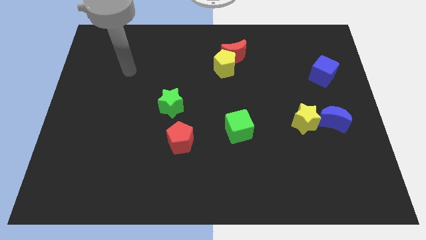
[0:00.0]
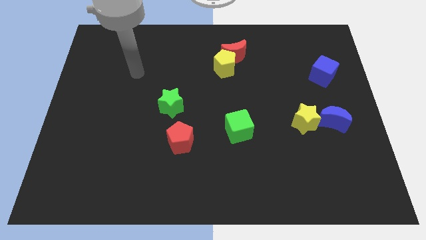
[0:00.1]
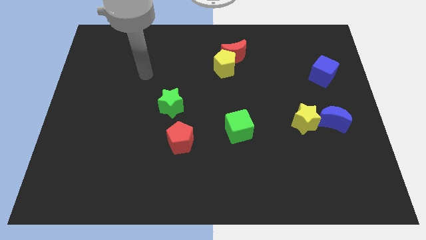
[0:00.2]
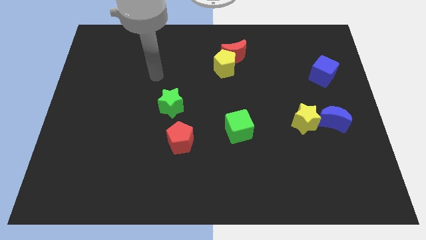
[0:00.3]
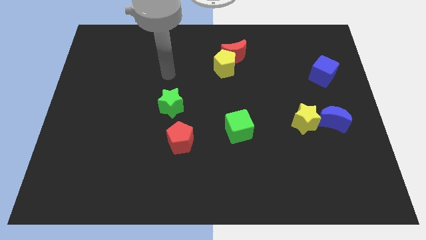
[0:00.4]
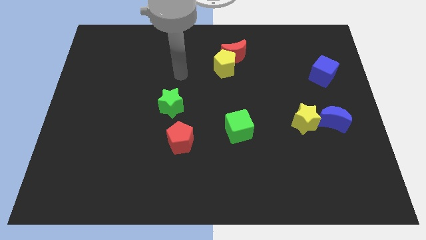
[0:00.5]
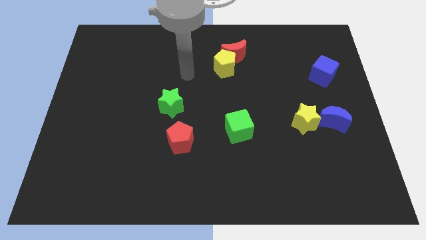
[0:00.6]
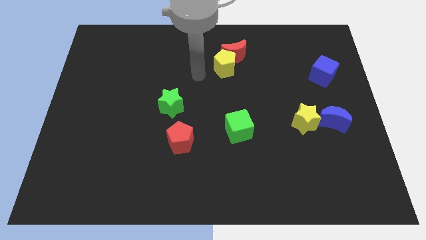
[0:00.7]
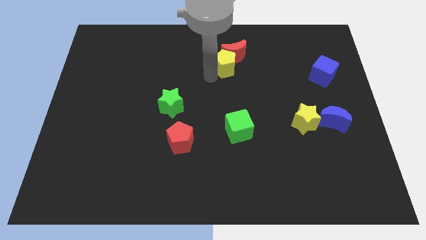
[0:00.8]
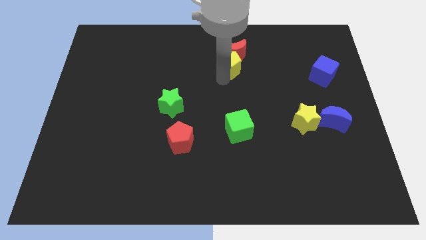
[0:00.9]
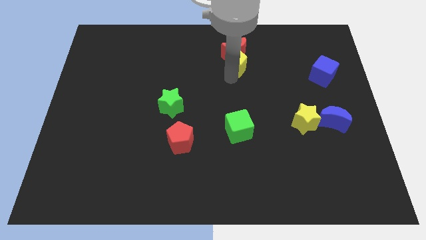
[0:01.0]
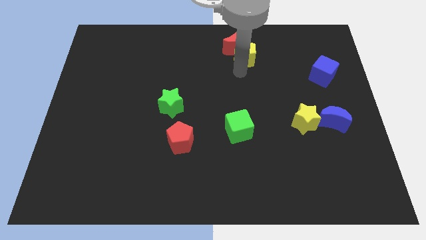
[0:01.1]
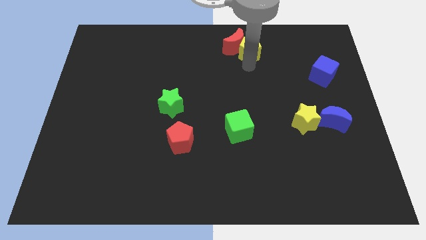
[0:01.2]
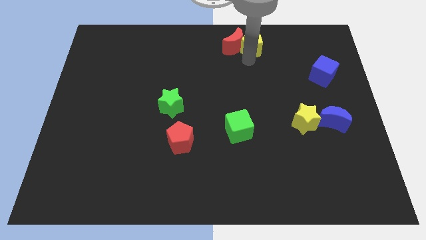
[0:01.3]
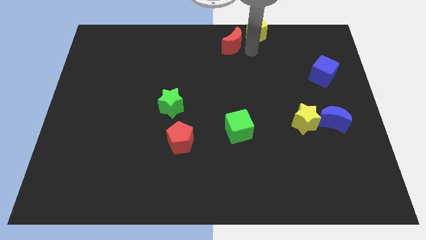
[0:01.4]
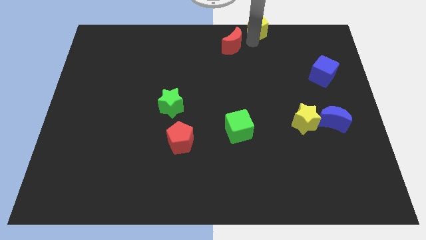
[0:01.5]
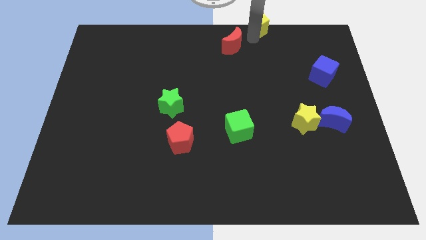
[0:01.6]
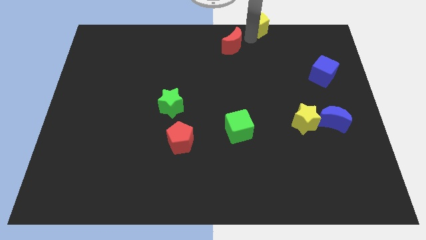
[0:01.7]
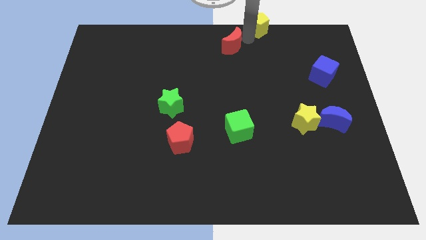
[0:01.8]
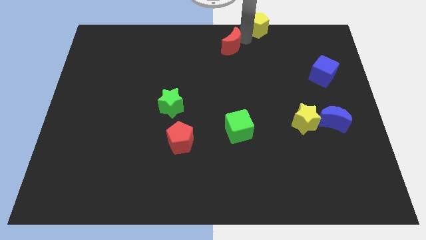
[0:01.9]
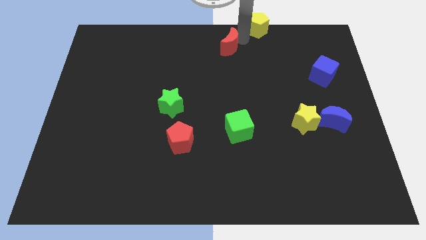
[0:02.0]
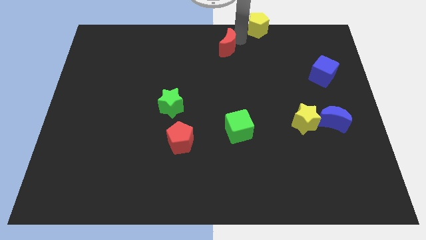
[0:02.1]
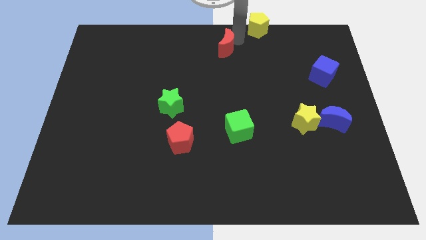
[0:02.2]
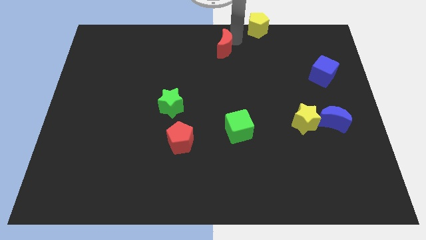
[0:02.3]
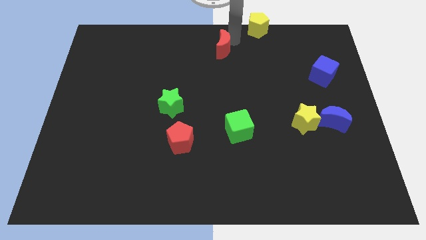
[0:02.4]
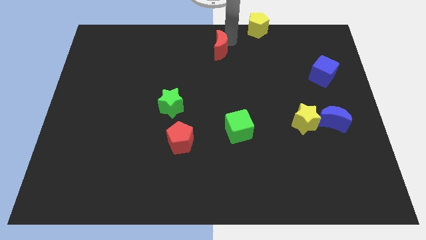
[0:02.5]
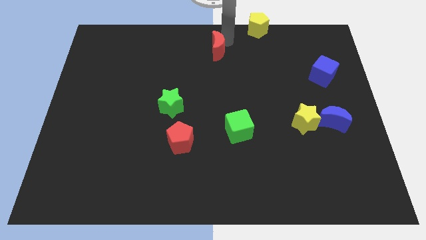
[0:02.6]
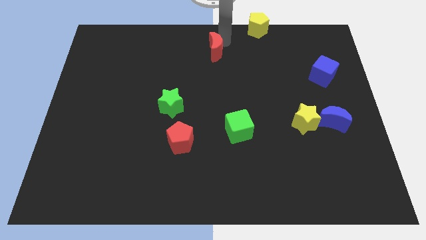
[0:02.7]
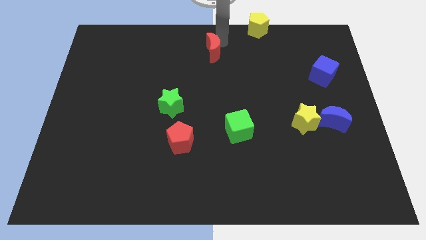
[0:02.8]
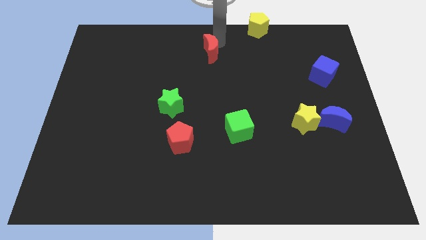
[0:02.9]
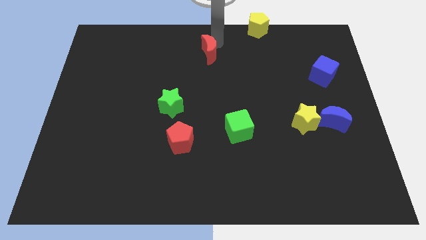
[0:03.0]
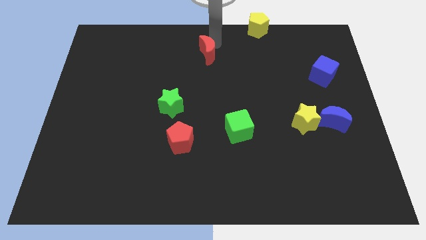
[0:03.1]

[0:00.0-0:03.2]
slightly push the red moon to the left

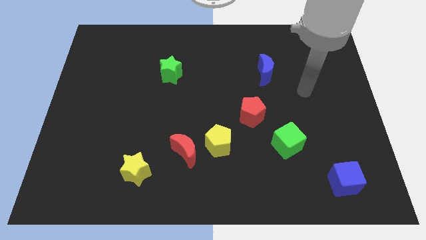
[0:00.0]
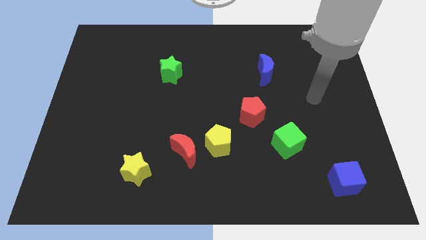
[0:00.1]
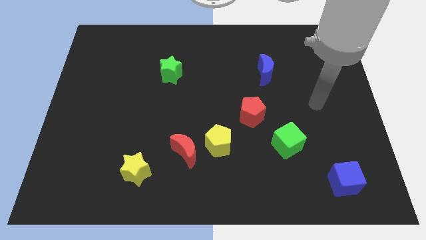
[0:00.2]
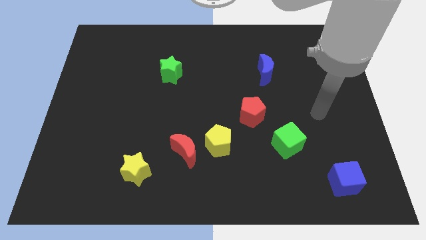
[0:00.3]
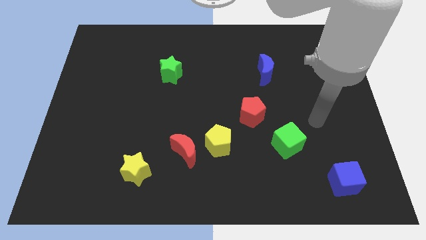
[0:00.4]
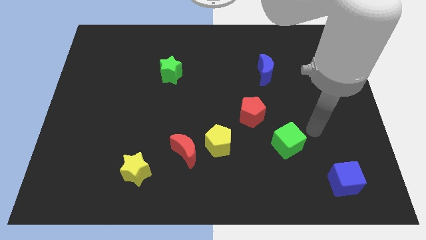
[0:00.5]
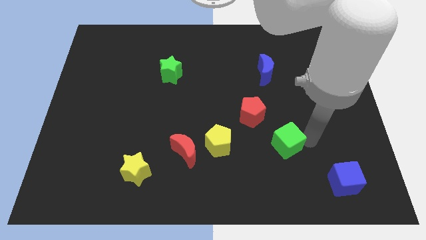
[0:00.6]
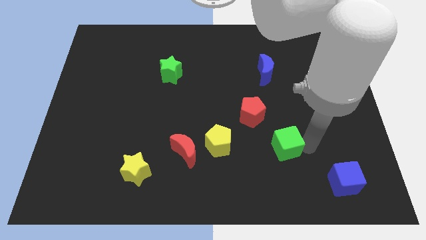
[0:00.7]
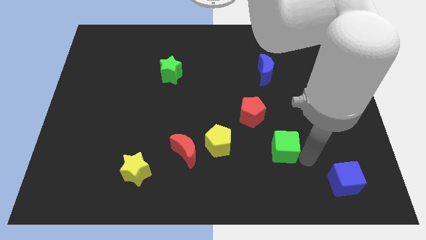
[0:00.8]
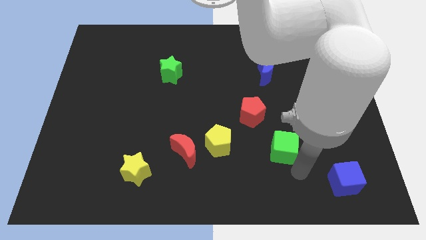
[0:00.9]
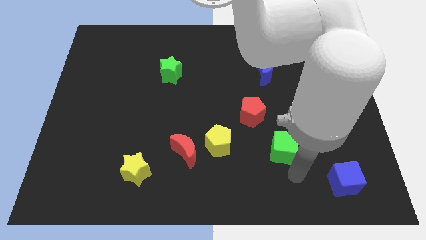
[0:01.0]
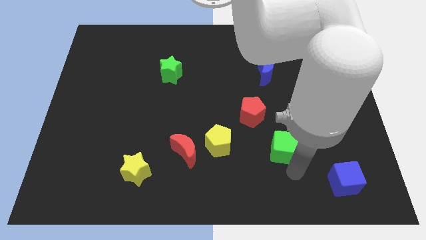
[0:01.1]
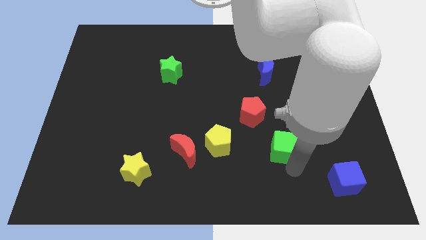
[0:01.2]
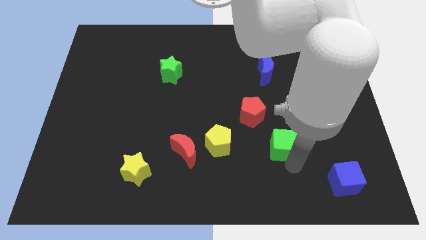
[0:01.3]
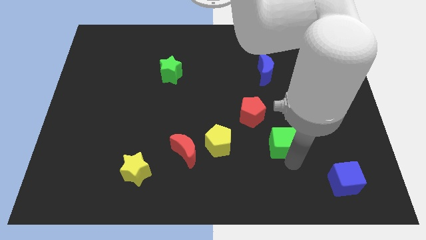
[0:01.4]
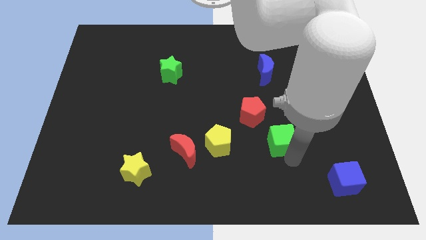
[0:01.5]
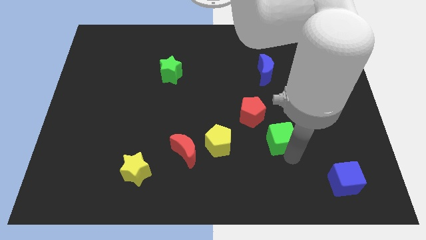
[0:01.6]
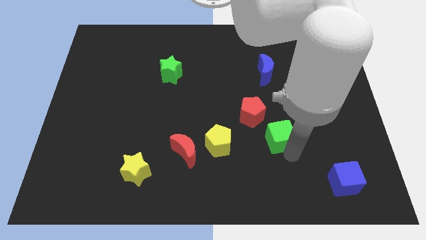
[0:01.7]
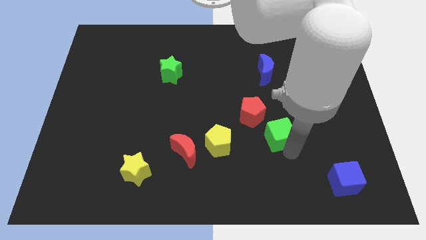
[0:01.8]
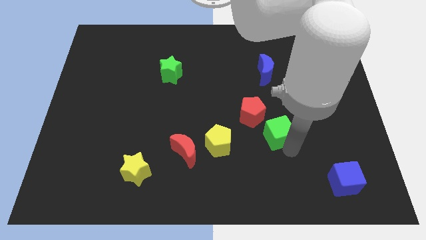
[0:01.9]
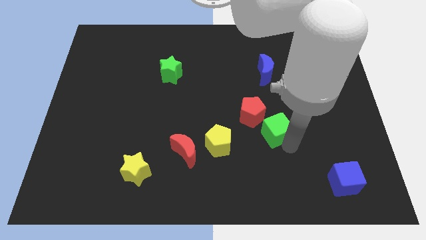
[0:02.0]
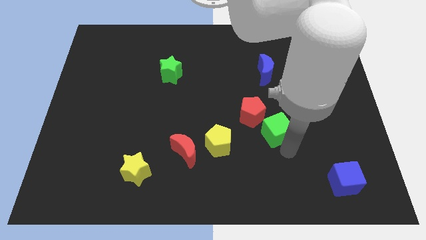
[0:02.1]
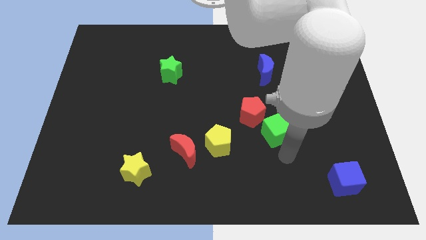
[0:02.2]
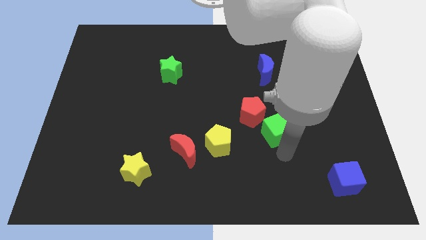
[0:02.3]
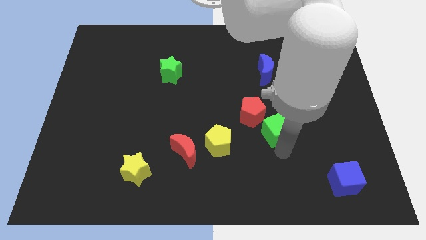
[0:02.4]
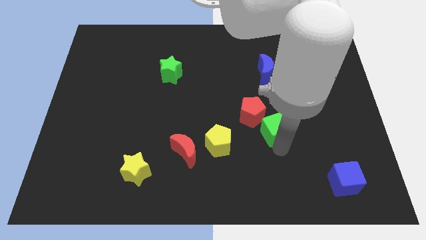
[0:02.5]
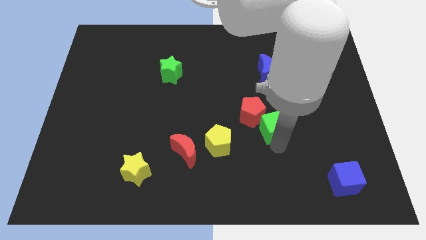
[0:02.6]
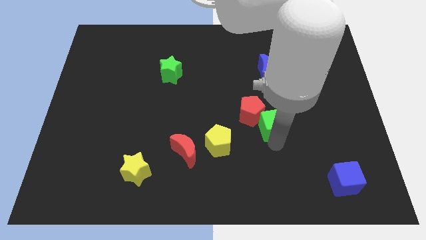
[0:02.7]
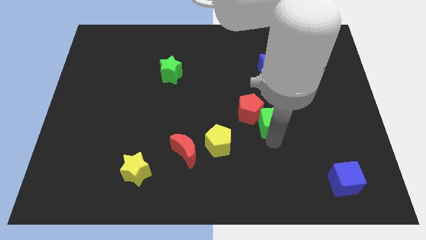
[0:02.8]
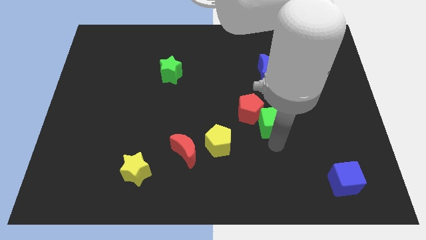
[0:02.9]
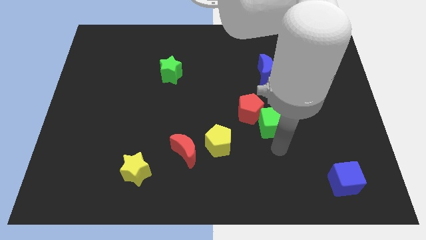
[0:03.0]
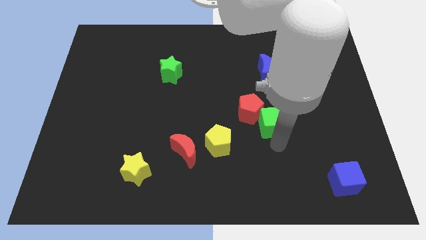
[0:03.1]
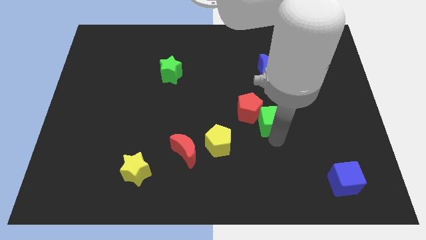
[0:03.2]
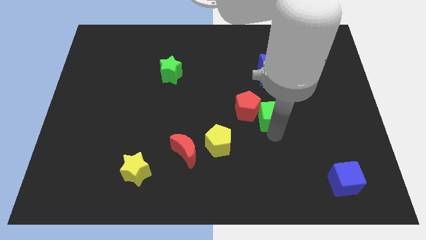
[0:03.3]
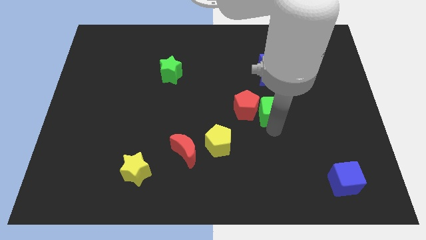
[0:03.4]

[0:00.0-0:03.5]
move the green cube a little bit upwards and left diagonally

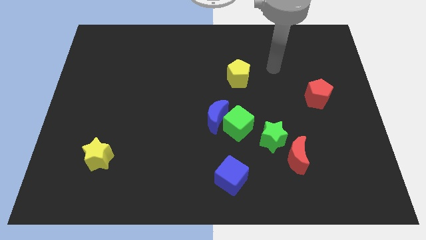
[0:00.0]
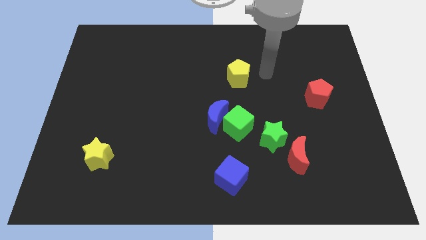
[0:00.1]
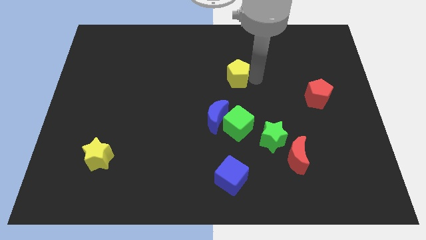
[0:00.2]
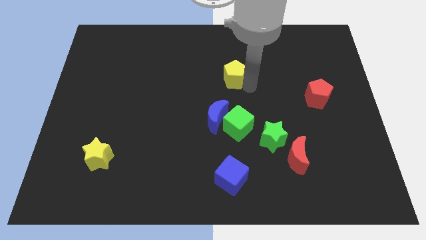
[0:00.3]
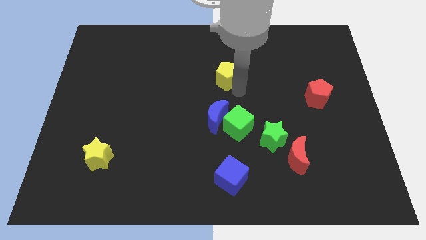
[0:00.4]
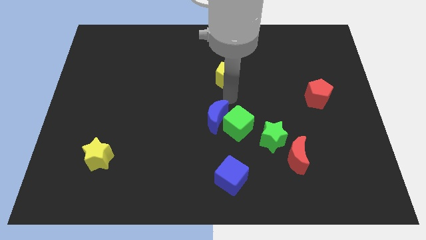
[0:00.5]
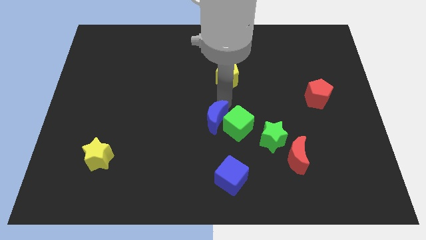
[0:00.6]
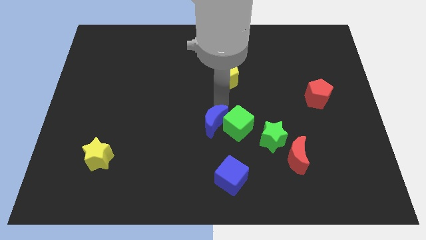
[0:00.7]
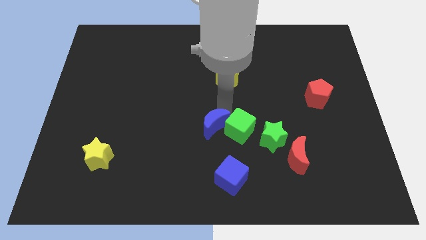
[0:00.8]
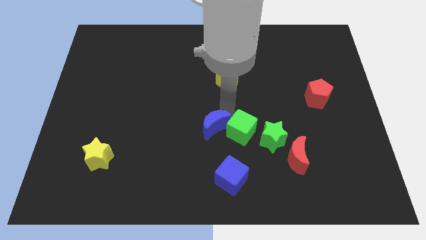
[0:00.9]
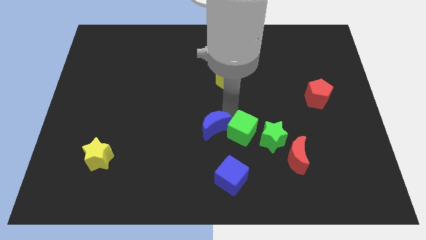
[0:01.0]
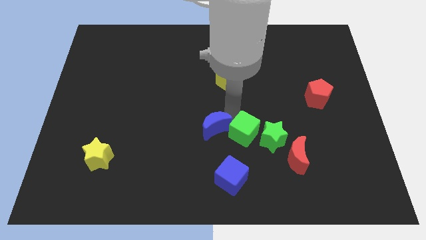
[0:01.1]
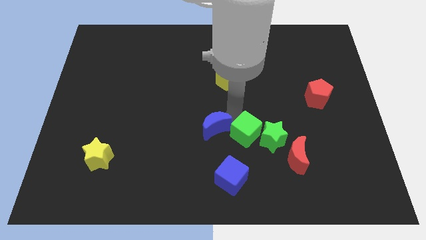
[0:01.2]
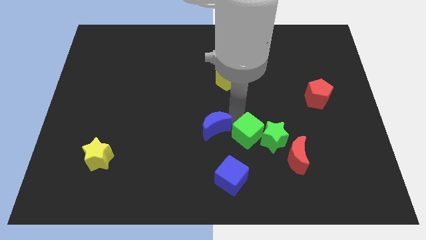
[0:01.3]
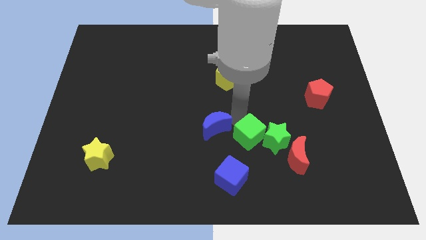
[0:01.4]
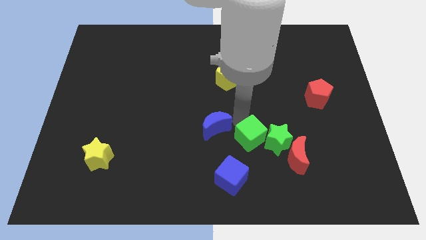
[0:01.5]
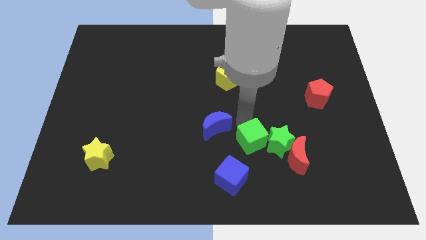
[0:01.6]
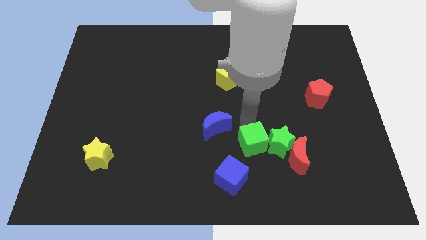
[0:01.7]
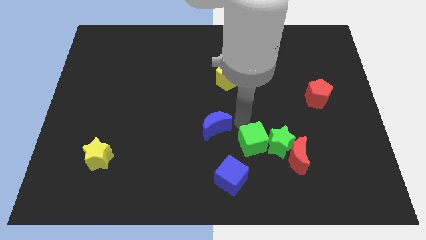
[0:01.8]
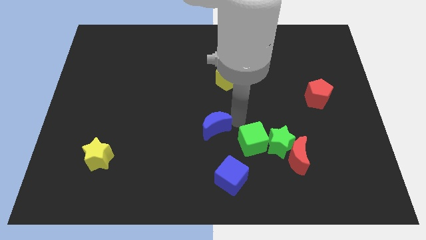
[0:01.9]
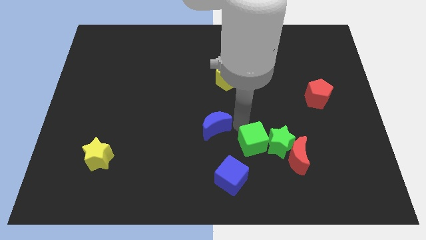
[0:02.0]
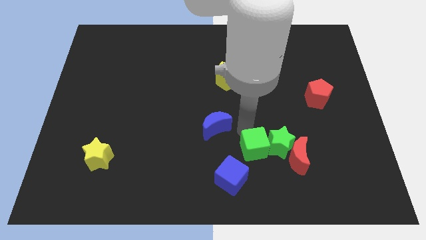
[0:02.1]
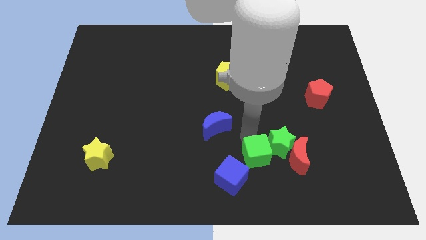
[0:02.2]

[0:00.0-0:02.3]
slightly push the green cube down and right diagonally
